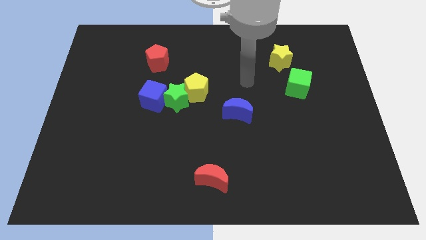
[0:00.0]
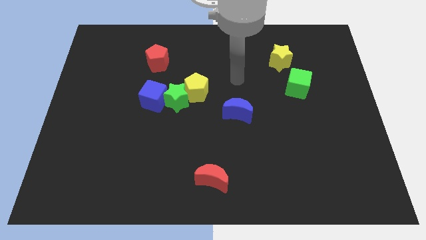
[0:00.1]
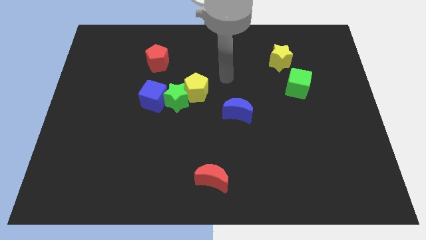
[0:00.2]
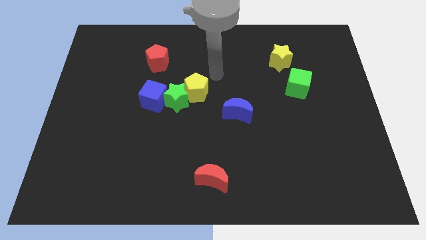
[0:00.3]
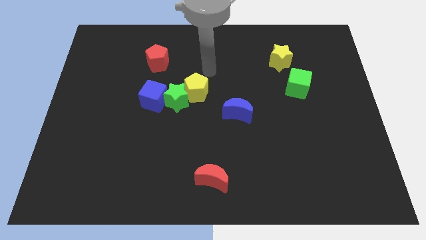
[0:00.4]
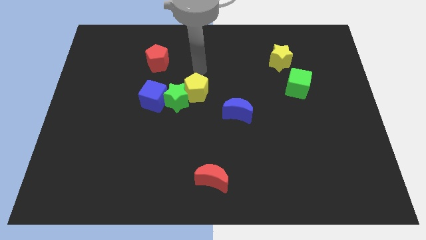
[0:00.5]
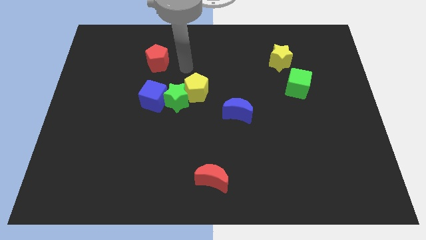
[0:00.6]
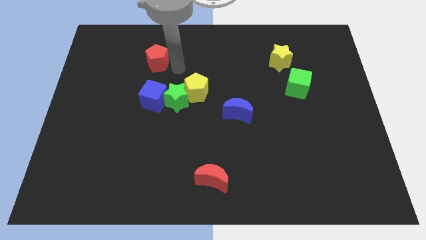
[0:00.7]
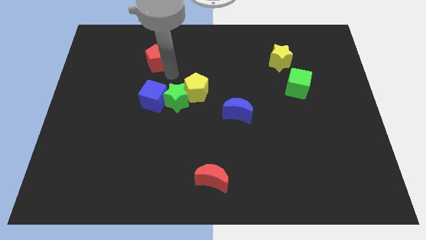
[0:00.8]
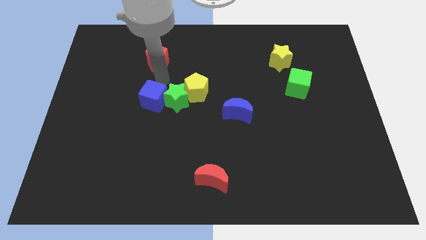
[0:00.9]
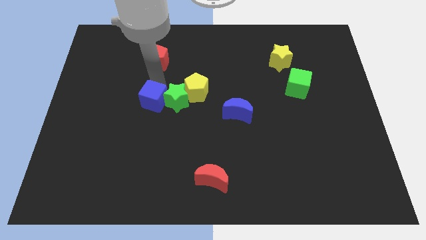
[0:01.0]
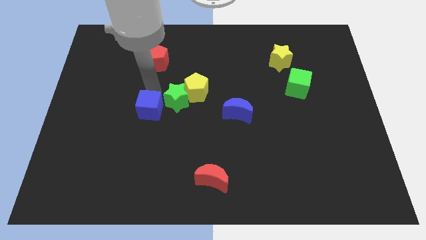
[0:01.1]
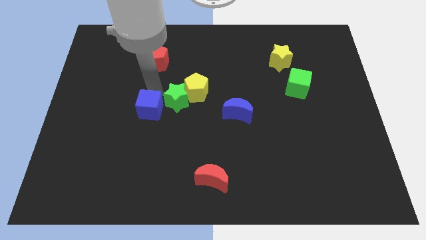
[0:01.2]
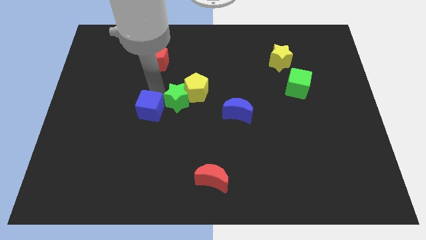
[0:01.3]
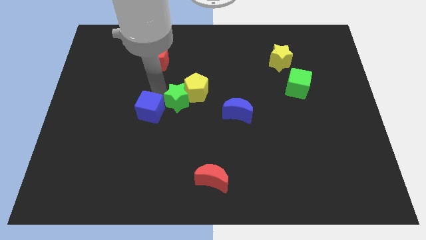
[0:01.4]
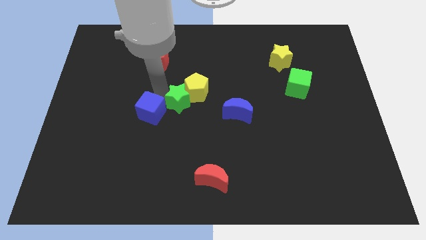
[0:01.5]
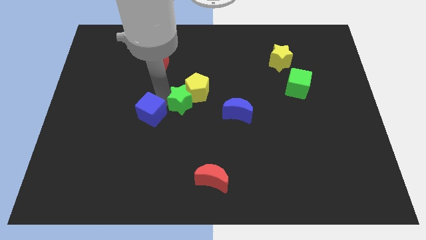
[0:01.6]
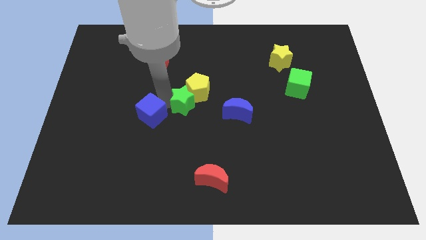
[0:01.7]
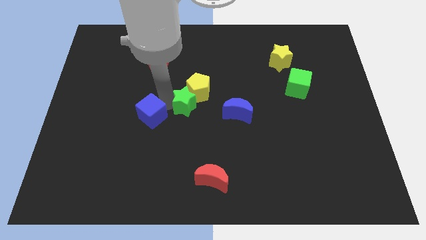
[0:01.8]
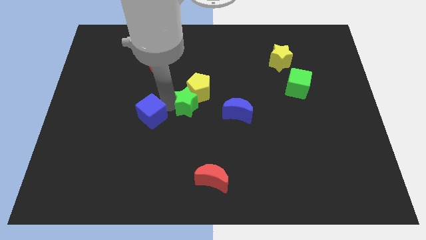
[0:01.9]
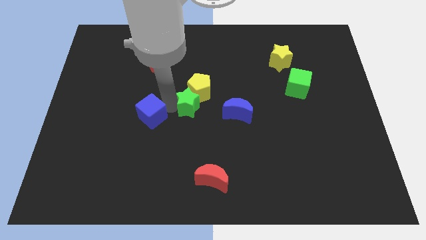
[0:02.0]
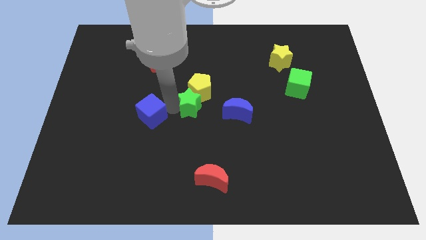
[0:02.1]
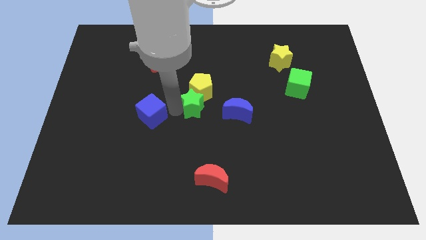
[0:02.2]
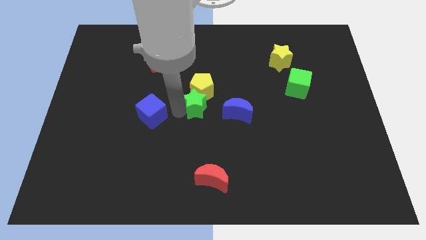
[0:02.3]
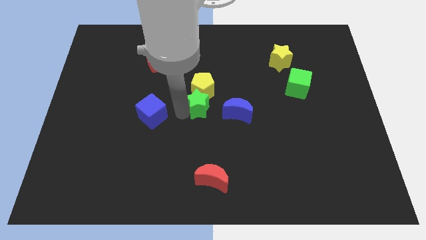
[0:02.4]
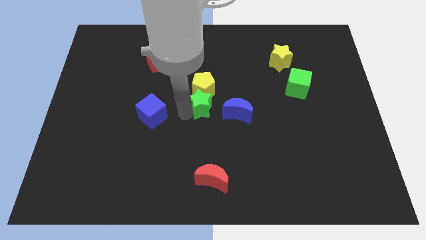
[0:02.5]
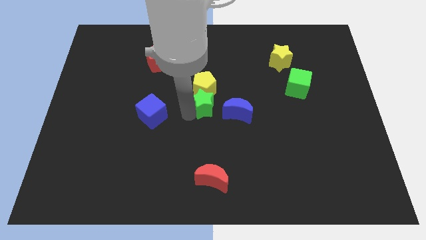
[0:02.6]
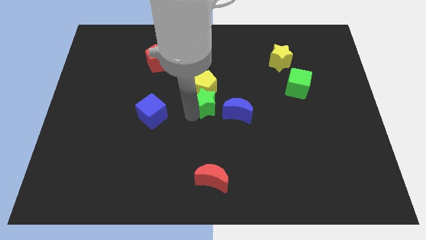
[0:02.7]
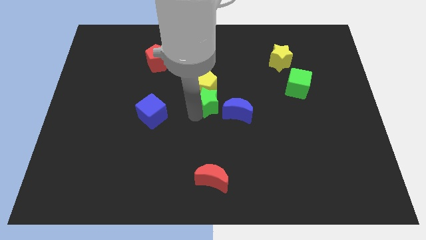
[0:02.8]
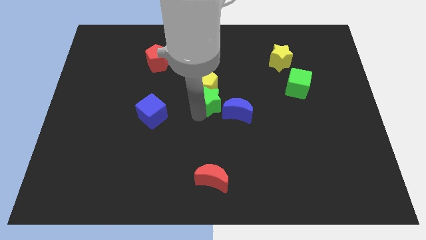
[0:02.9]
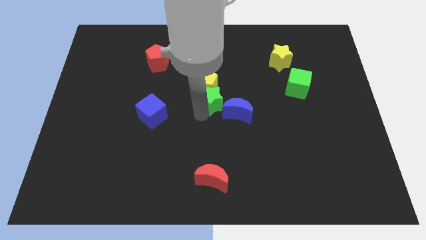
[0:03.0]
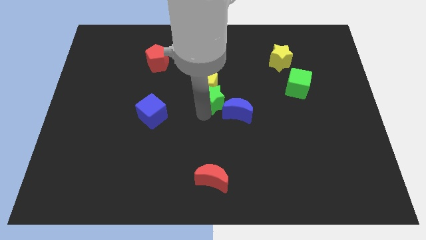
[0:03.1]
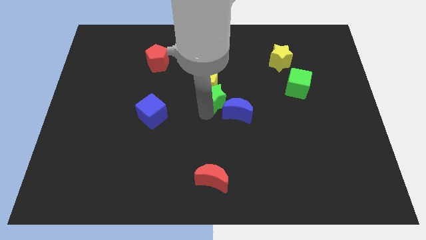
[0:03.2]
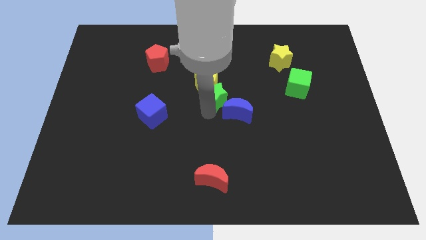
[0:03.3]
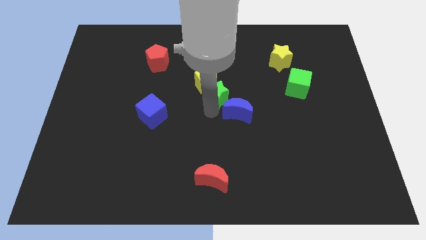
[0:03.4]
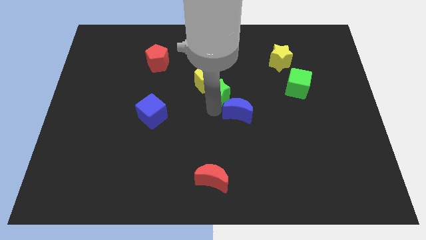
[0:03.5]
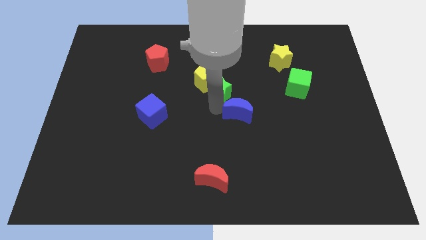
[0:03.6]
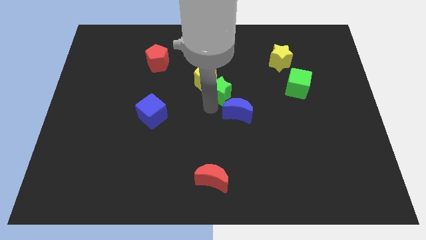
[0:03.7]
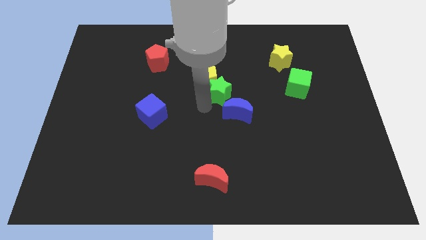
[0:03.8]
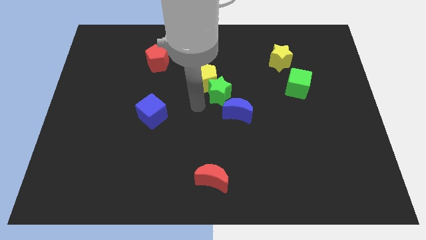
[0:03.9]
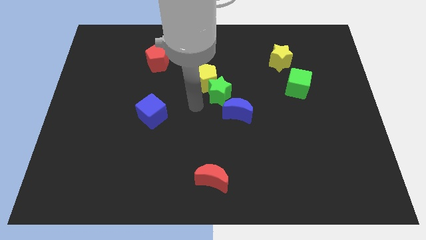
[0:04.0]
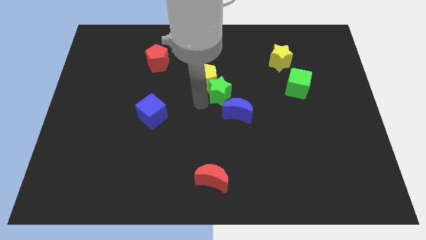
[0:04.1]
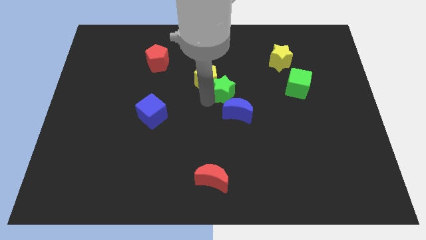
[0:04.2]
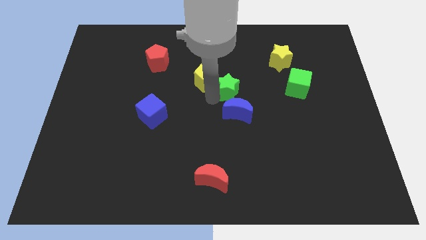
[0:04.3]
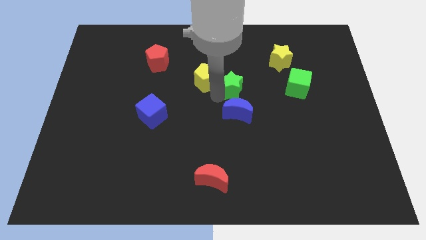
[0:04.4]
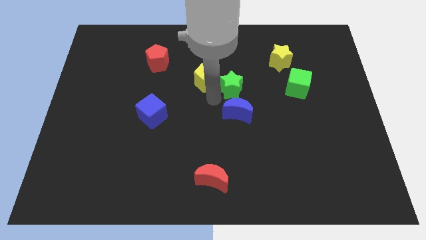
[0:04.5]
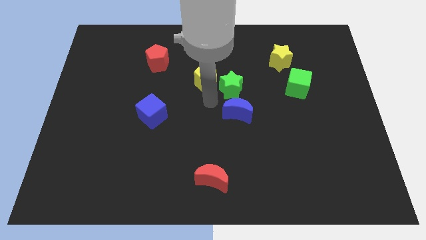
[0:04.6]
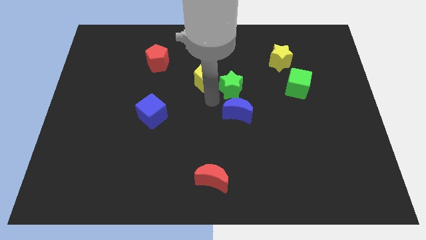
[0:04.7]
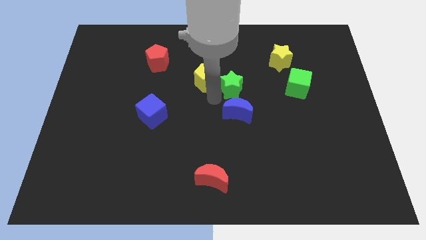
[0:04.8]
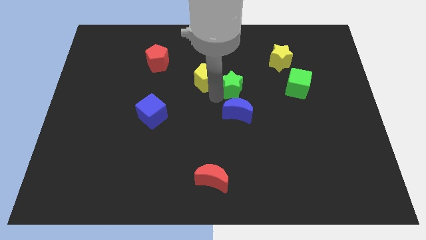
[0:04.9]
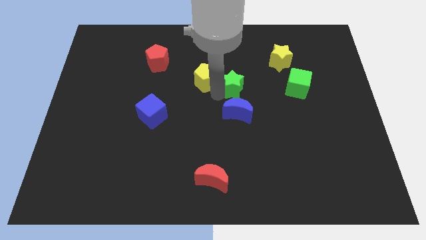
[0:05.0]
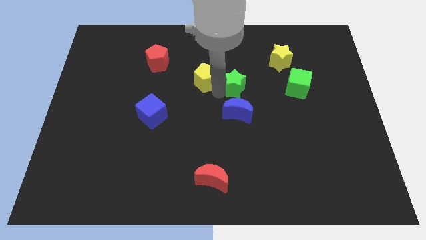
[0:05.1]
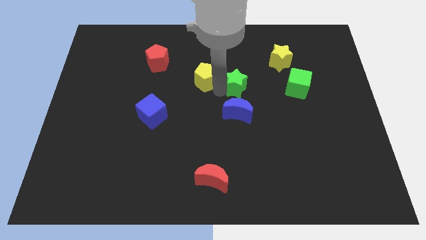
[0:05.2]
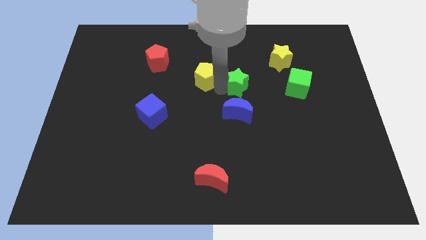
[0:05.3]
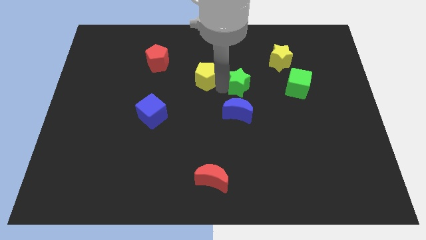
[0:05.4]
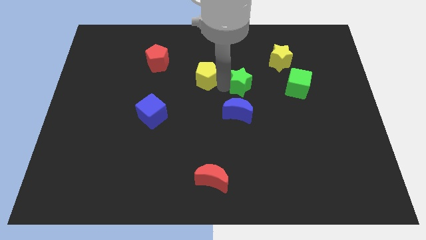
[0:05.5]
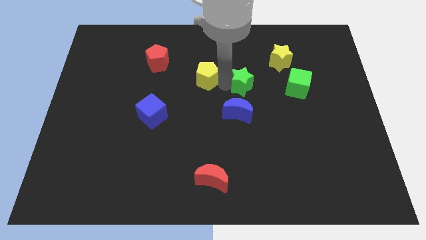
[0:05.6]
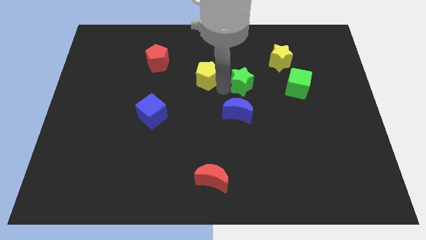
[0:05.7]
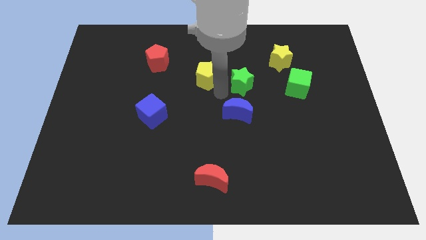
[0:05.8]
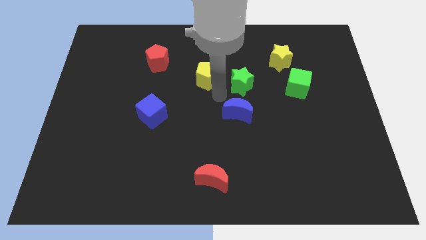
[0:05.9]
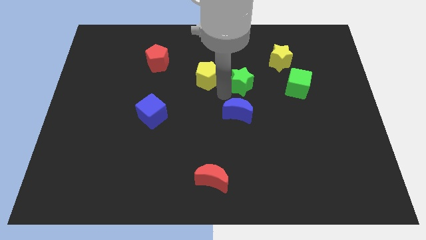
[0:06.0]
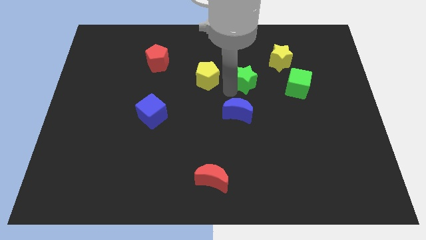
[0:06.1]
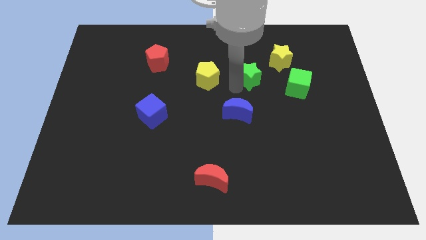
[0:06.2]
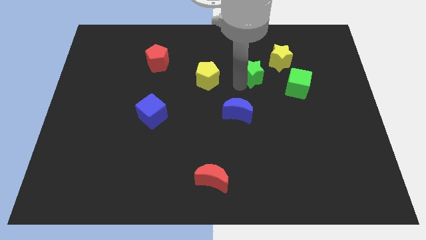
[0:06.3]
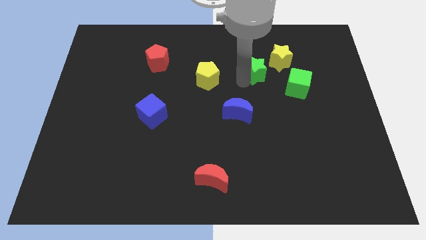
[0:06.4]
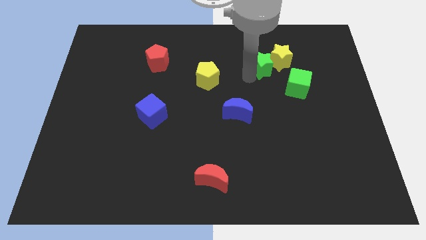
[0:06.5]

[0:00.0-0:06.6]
put the green star to the yellow star
